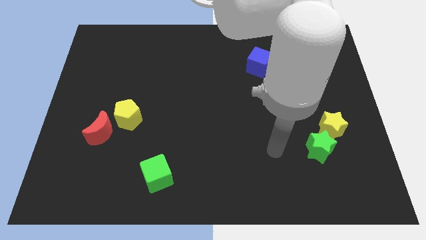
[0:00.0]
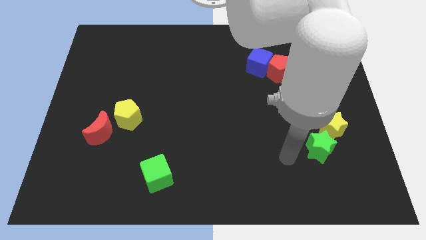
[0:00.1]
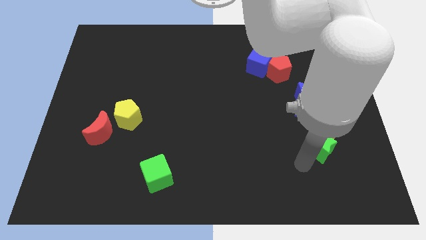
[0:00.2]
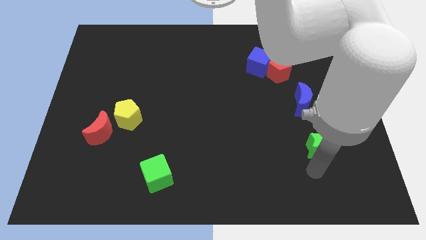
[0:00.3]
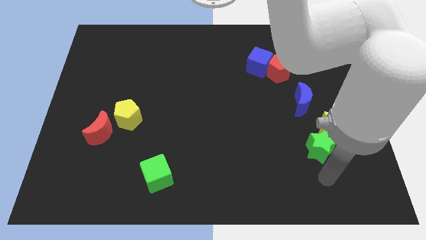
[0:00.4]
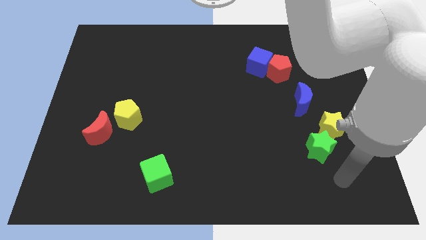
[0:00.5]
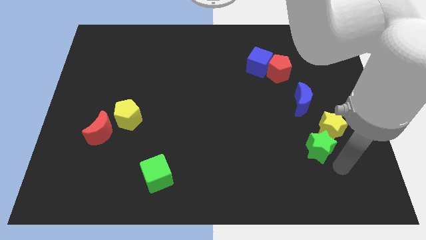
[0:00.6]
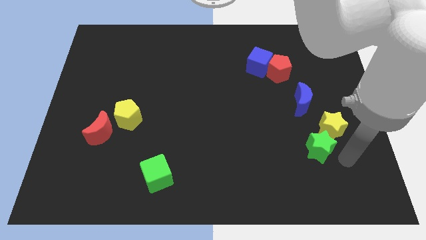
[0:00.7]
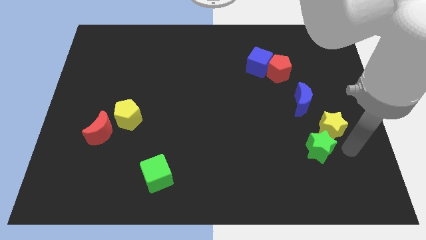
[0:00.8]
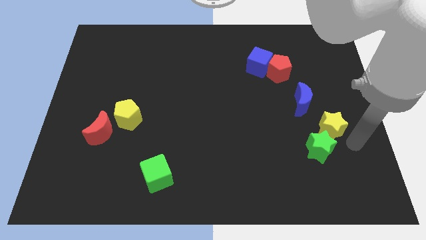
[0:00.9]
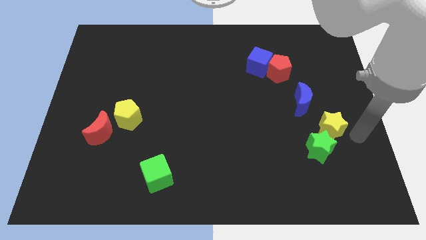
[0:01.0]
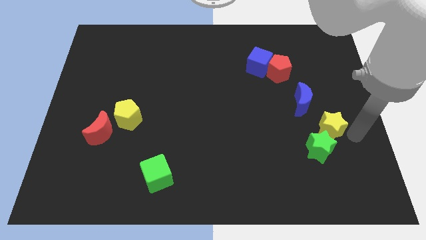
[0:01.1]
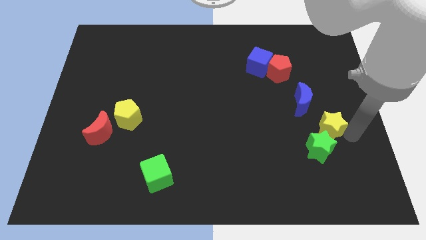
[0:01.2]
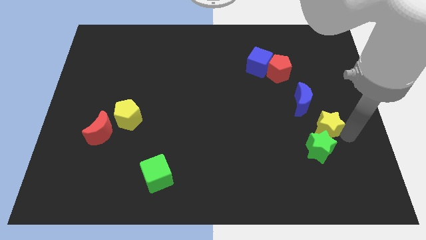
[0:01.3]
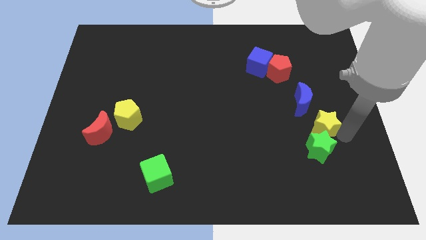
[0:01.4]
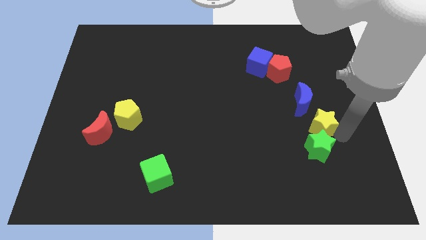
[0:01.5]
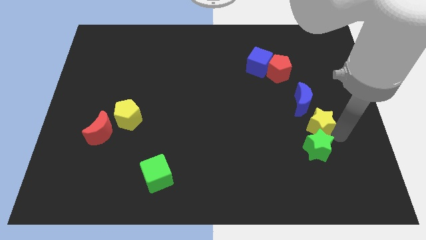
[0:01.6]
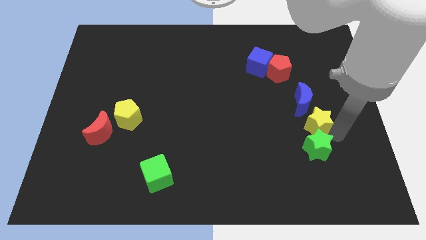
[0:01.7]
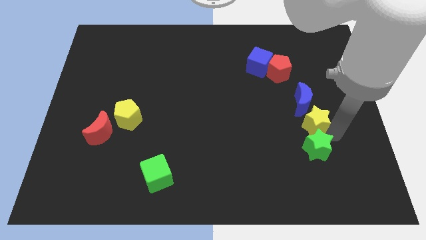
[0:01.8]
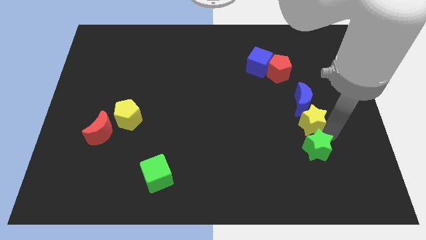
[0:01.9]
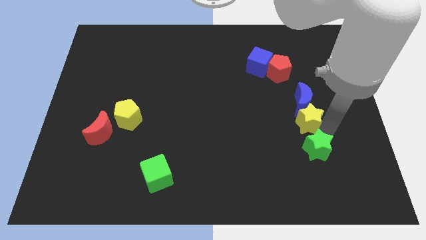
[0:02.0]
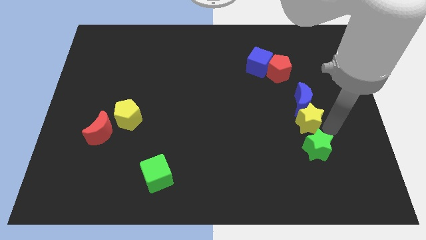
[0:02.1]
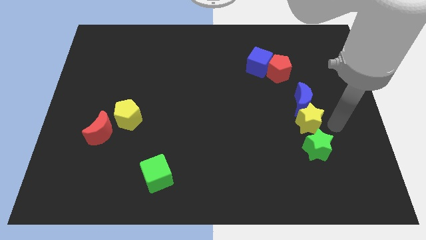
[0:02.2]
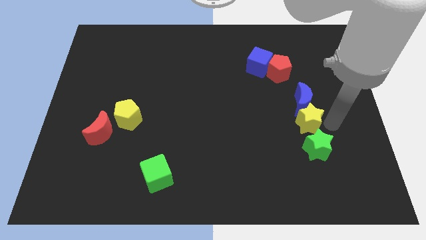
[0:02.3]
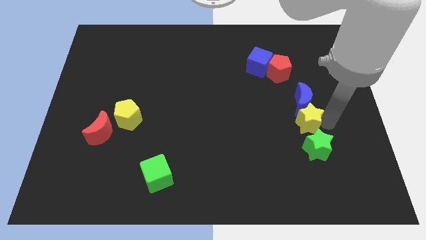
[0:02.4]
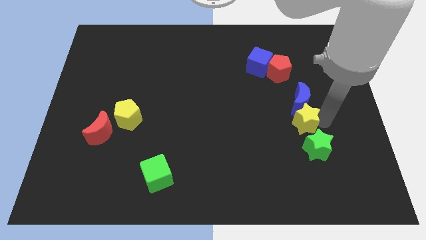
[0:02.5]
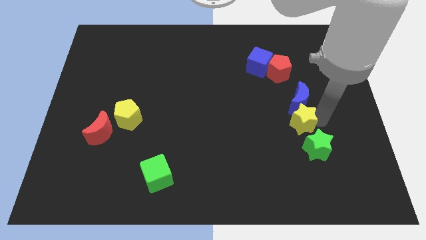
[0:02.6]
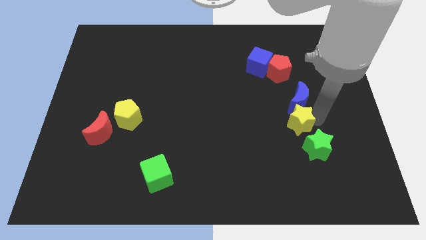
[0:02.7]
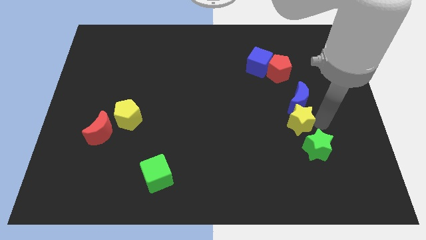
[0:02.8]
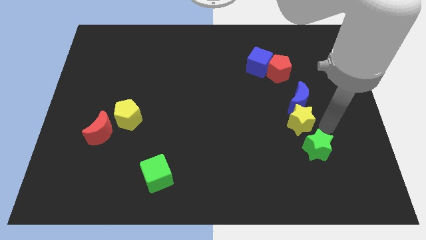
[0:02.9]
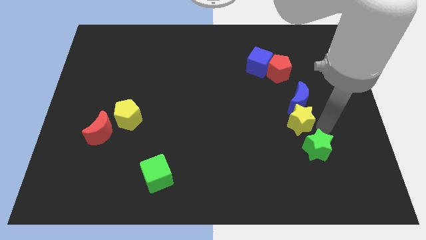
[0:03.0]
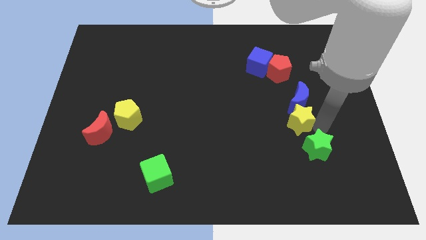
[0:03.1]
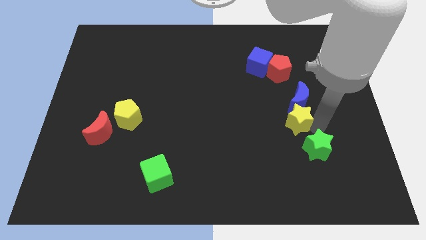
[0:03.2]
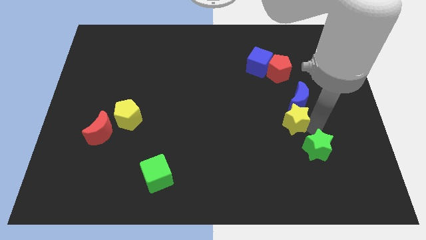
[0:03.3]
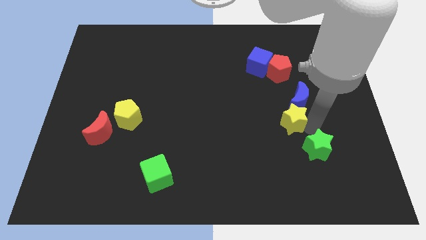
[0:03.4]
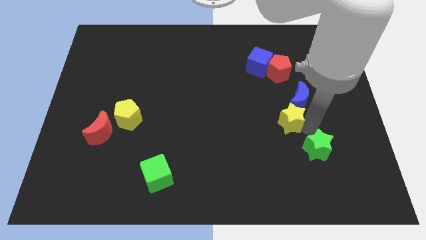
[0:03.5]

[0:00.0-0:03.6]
slightly slide the yellow star upwards and to the left diagonally

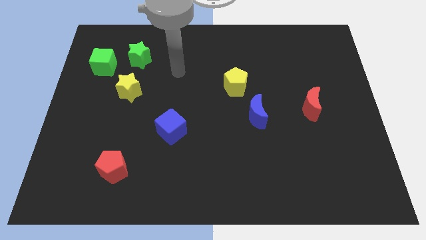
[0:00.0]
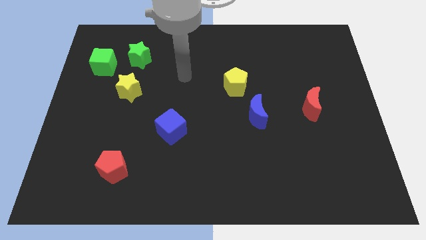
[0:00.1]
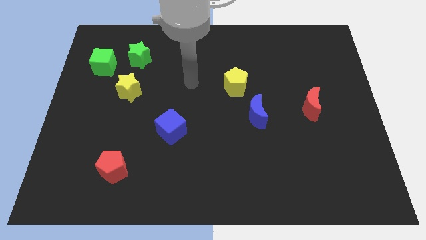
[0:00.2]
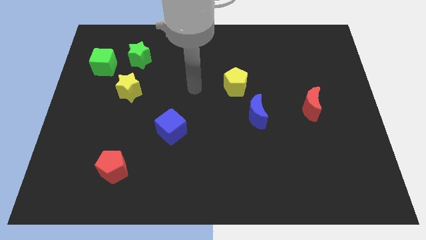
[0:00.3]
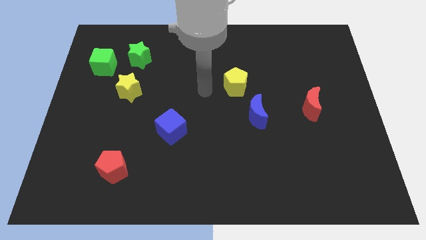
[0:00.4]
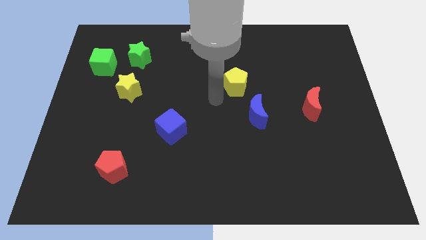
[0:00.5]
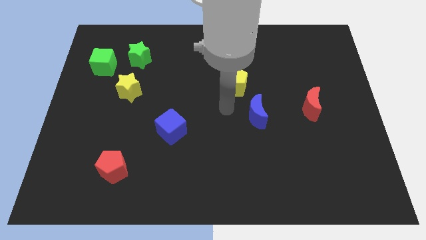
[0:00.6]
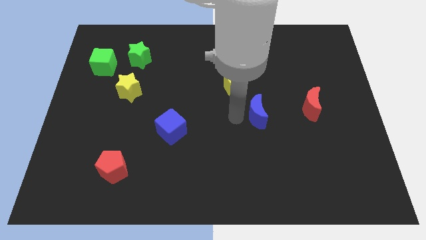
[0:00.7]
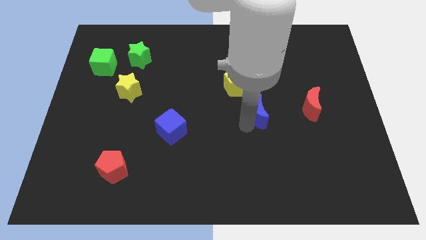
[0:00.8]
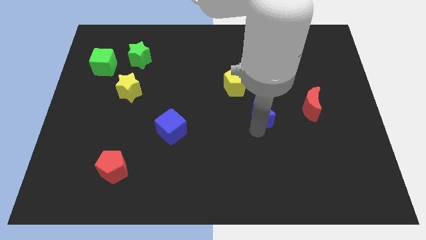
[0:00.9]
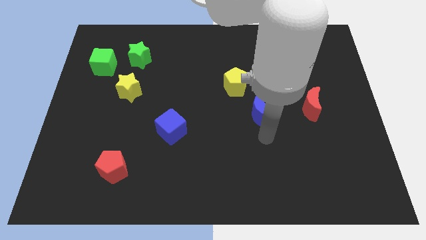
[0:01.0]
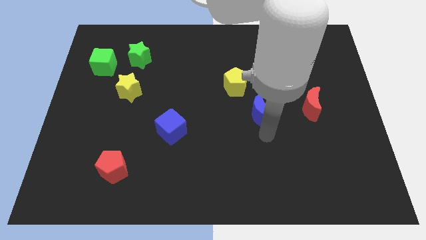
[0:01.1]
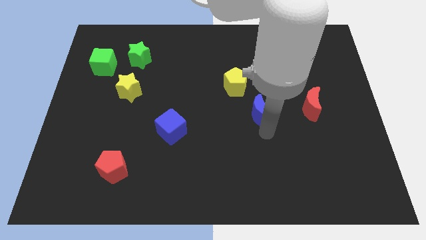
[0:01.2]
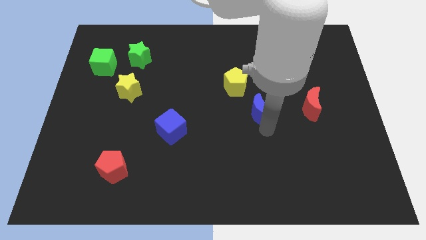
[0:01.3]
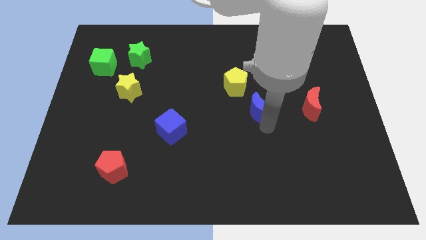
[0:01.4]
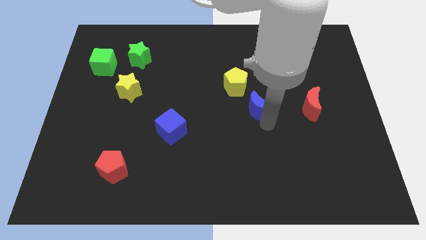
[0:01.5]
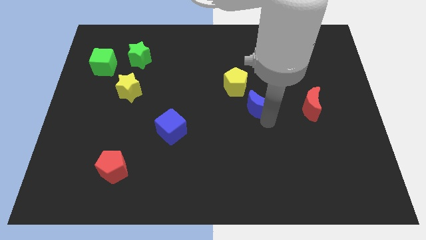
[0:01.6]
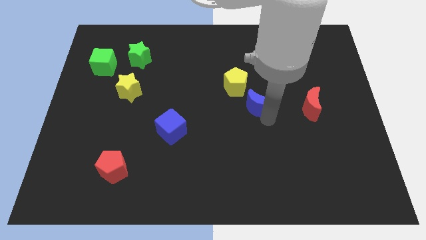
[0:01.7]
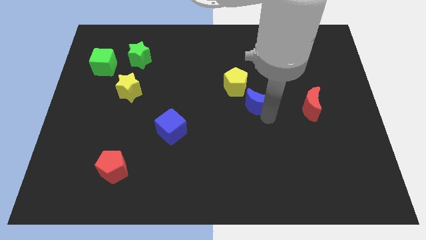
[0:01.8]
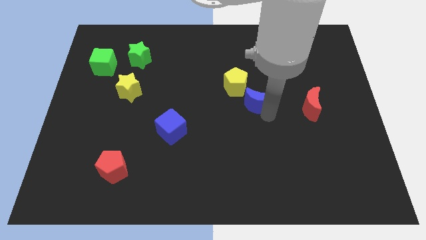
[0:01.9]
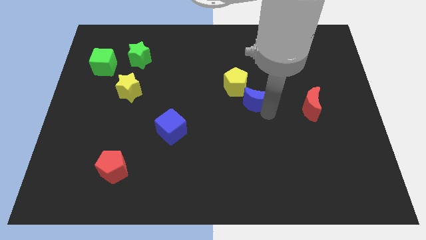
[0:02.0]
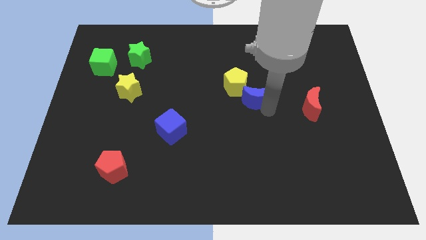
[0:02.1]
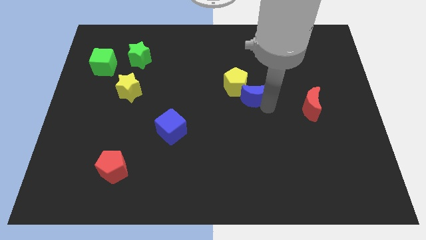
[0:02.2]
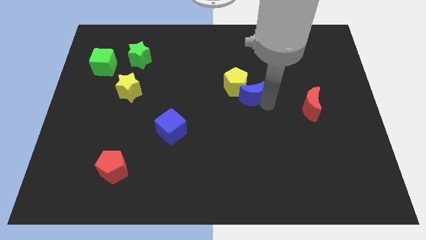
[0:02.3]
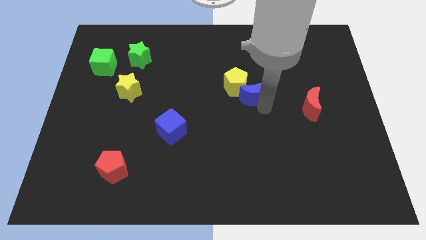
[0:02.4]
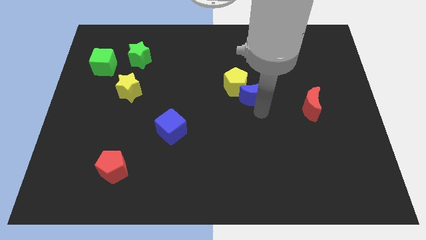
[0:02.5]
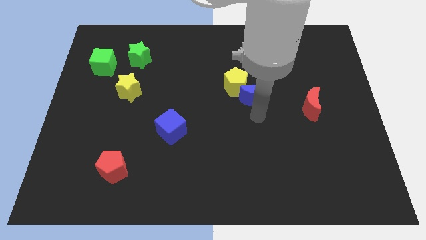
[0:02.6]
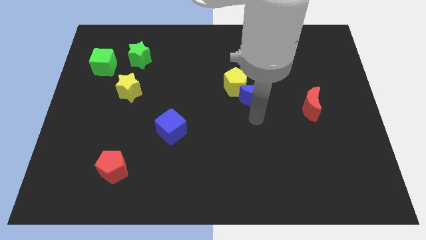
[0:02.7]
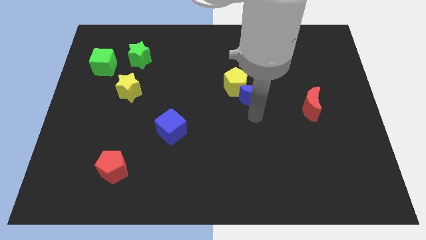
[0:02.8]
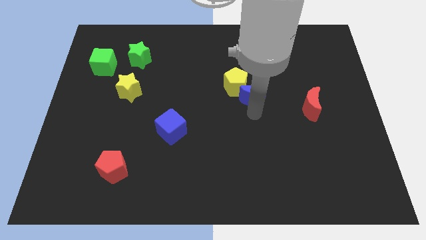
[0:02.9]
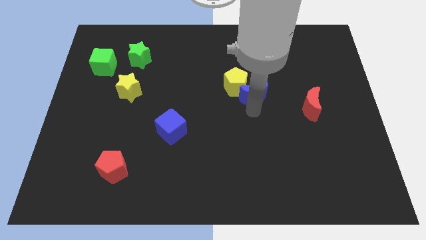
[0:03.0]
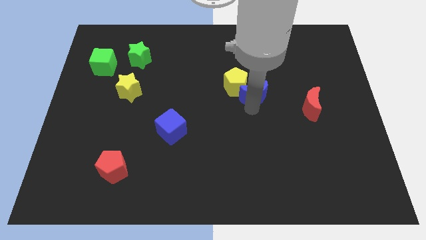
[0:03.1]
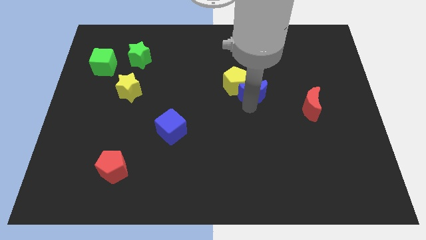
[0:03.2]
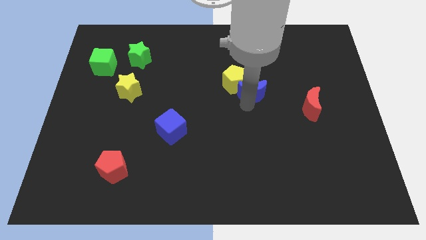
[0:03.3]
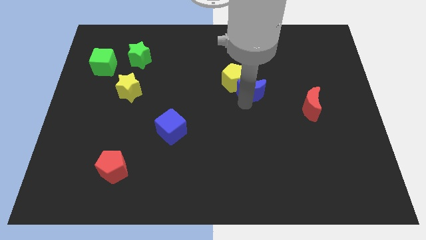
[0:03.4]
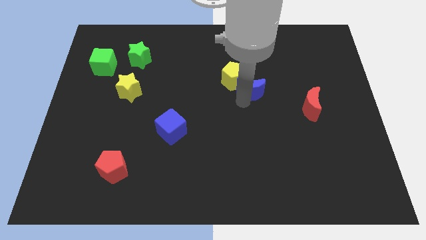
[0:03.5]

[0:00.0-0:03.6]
slightly slide the blue moon up

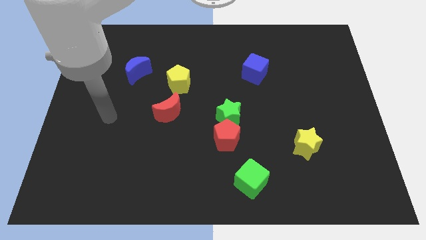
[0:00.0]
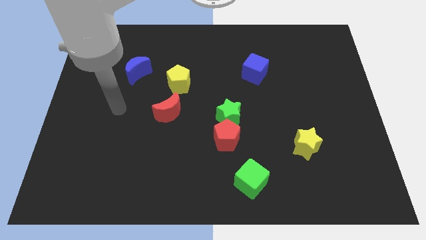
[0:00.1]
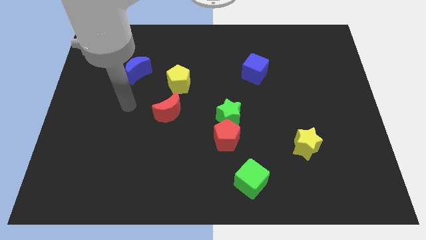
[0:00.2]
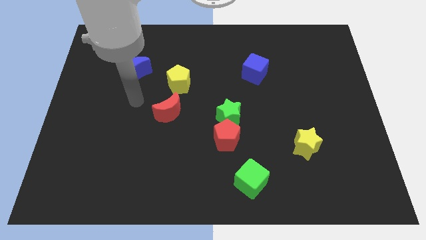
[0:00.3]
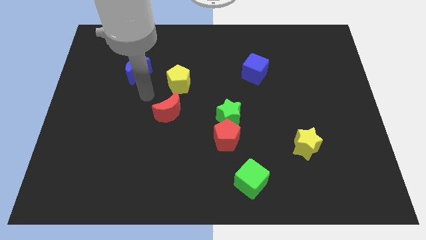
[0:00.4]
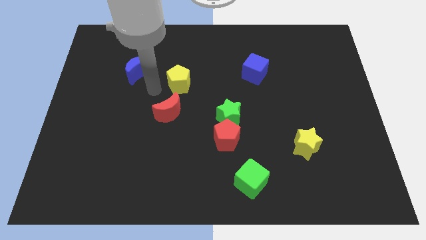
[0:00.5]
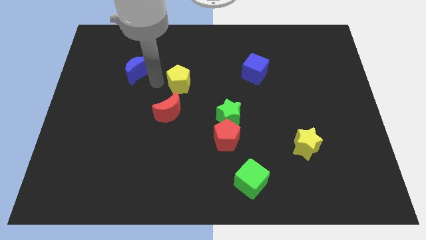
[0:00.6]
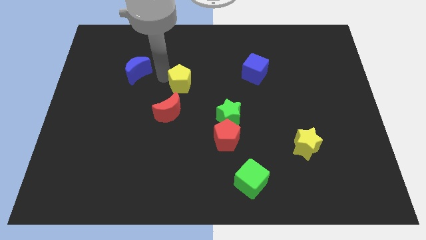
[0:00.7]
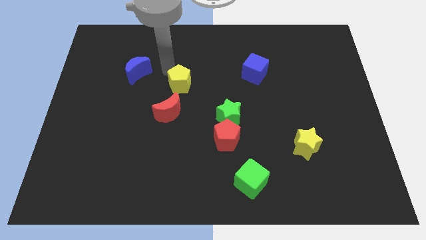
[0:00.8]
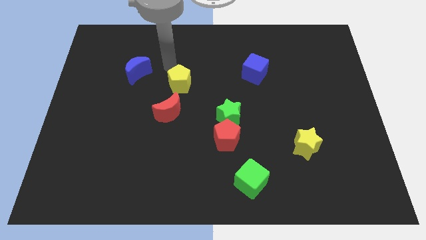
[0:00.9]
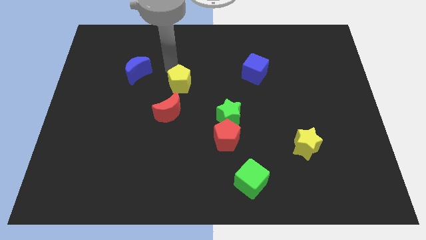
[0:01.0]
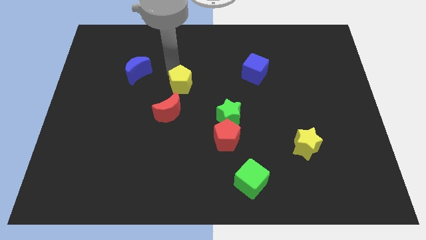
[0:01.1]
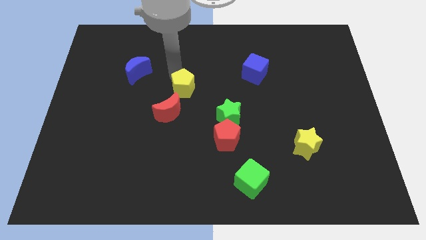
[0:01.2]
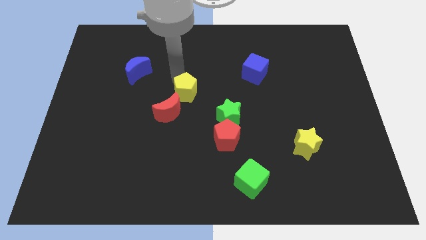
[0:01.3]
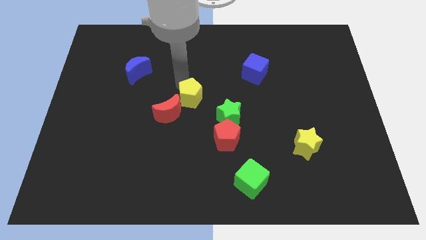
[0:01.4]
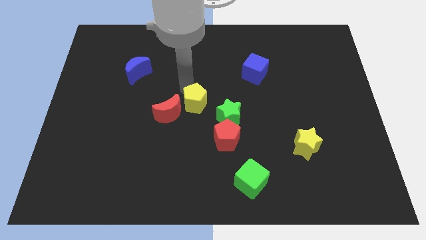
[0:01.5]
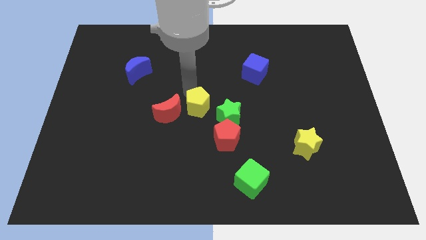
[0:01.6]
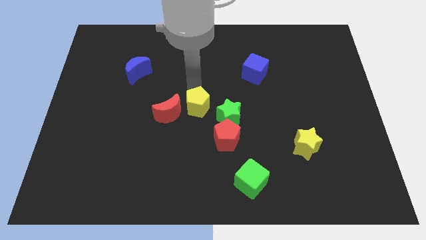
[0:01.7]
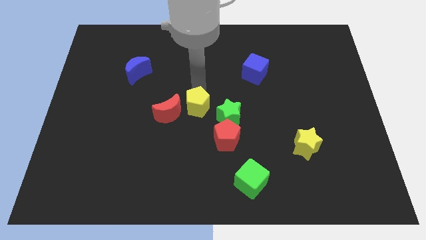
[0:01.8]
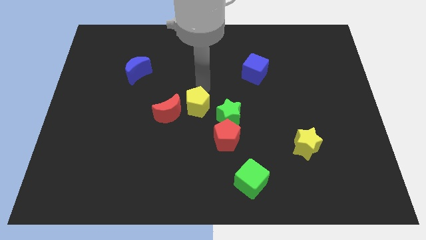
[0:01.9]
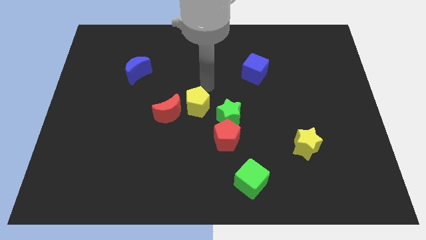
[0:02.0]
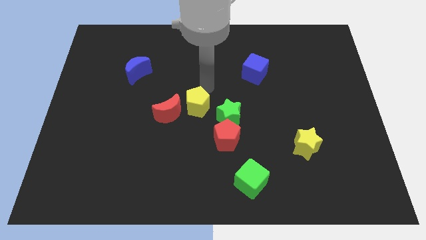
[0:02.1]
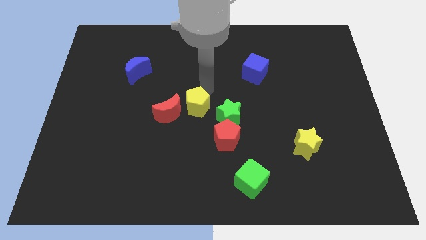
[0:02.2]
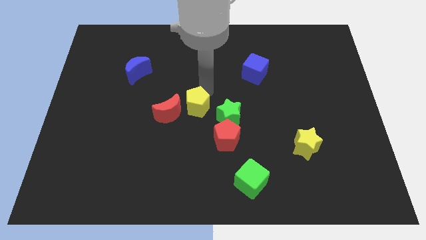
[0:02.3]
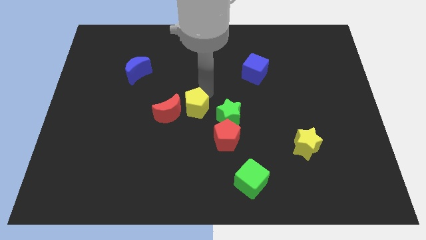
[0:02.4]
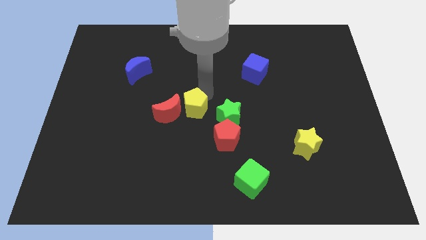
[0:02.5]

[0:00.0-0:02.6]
slide the yellow pentagon a little down
